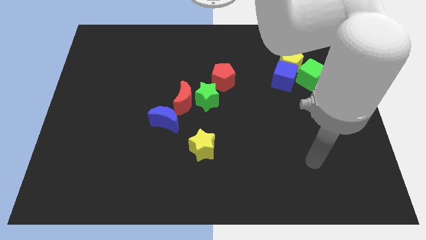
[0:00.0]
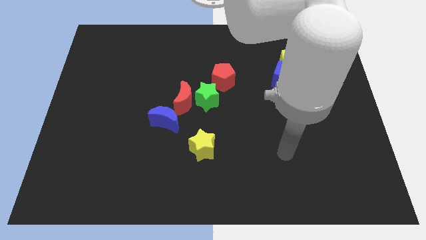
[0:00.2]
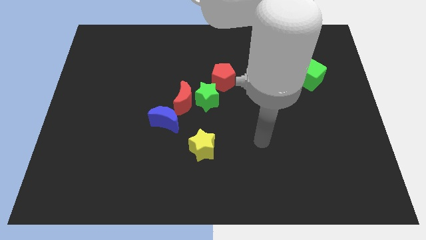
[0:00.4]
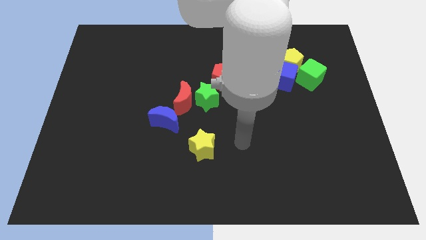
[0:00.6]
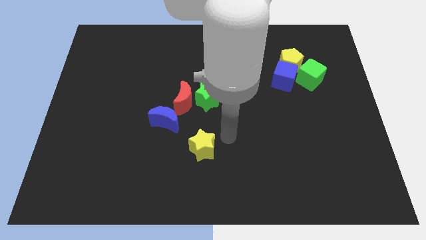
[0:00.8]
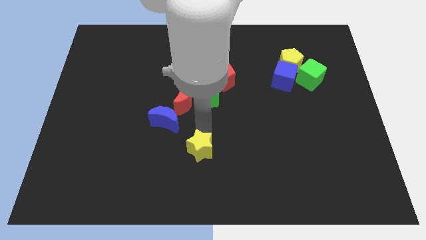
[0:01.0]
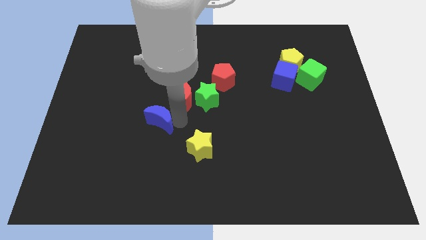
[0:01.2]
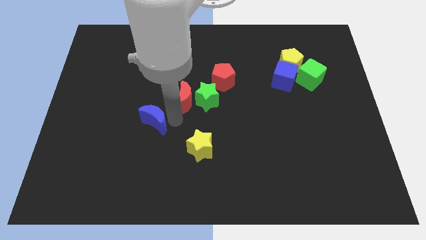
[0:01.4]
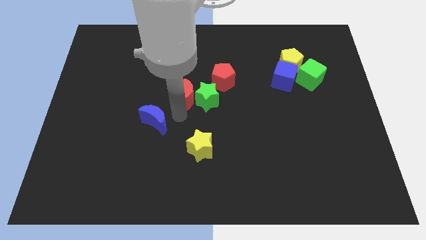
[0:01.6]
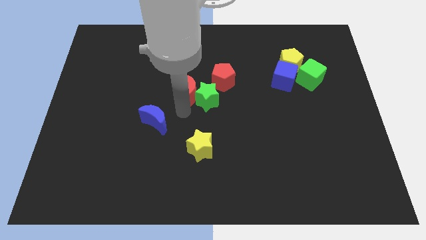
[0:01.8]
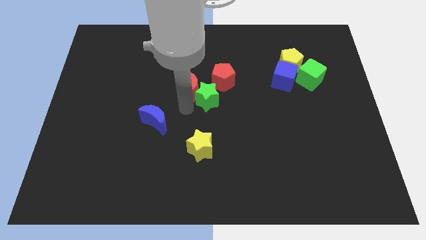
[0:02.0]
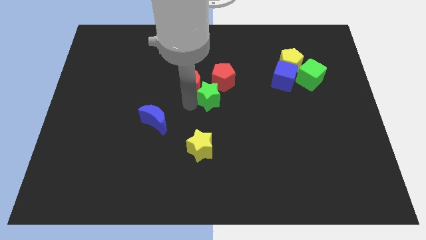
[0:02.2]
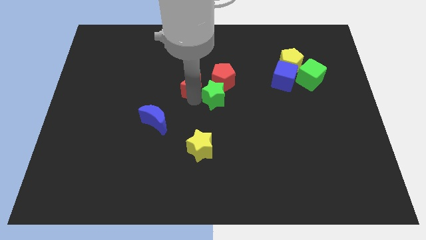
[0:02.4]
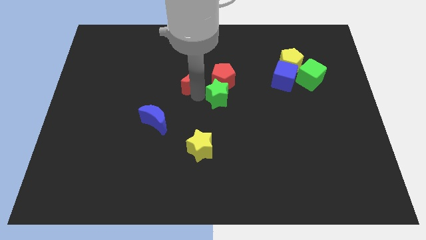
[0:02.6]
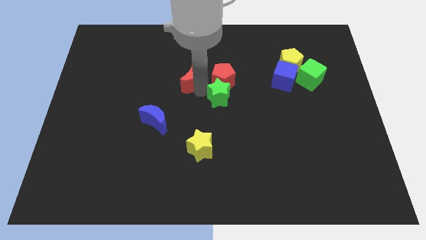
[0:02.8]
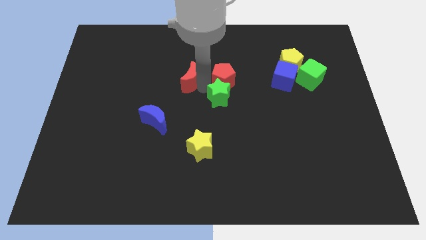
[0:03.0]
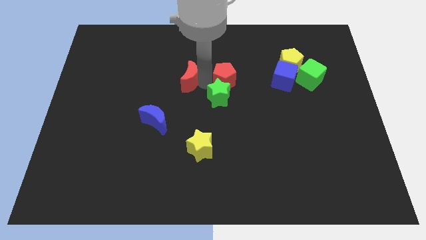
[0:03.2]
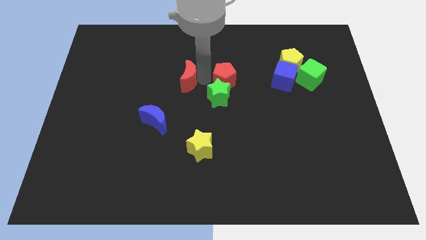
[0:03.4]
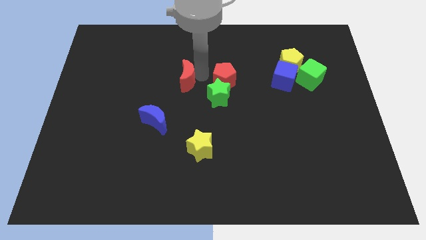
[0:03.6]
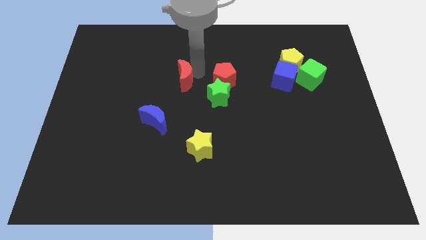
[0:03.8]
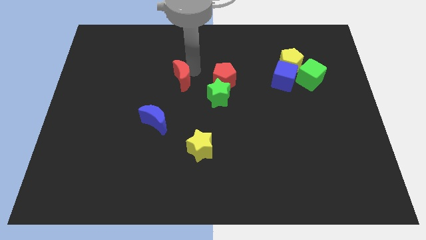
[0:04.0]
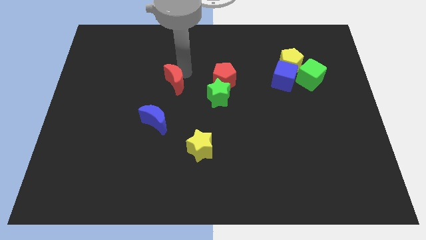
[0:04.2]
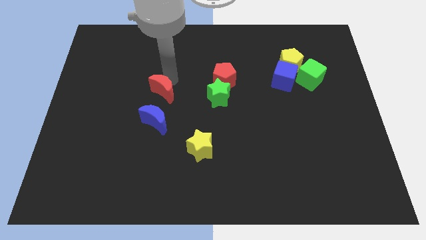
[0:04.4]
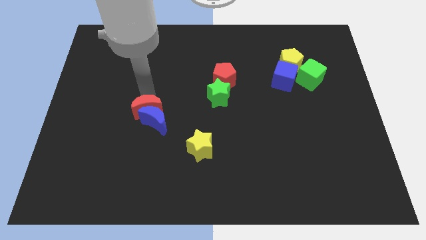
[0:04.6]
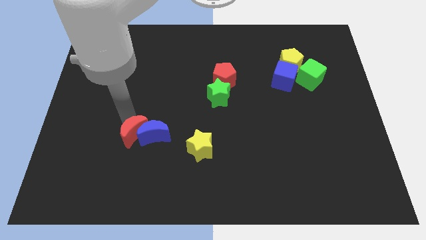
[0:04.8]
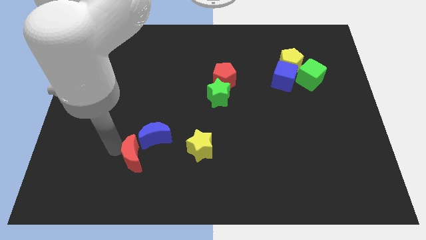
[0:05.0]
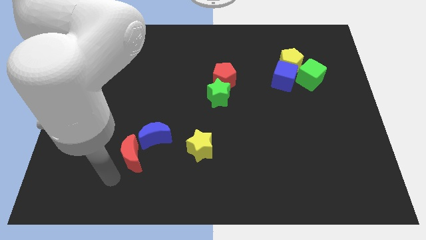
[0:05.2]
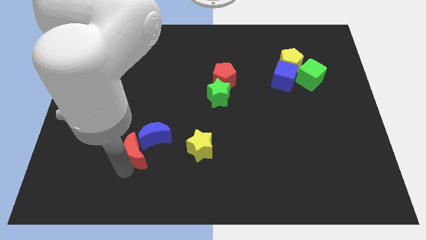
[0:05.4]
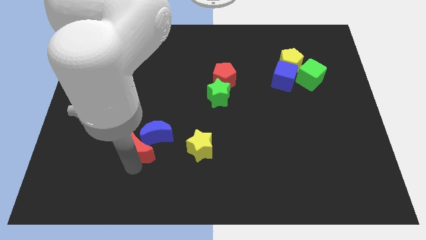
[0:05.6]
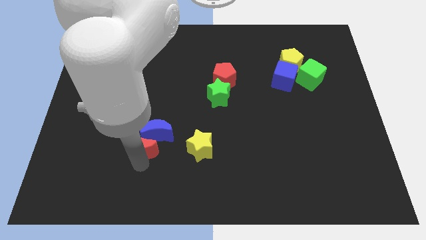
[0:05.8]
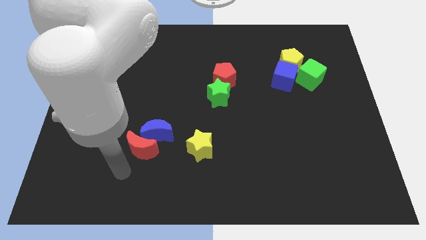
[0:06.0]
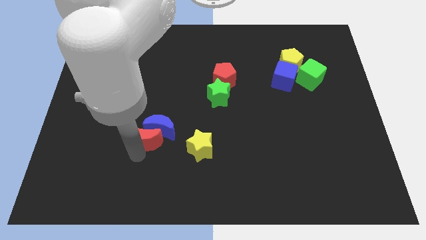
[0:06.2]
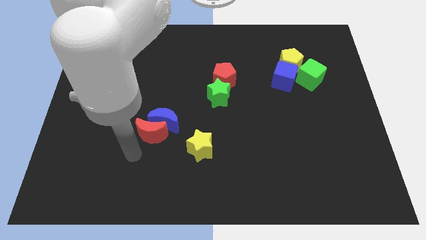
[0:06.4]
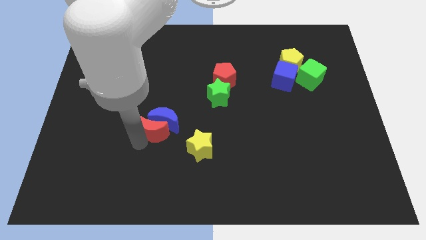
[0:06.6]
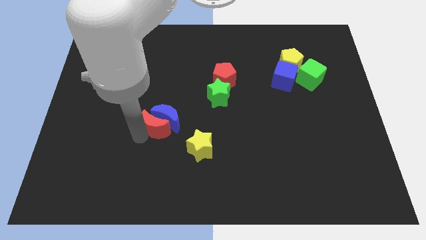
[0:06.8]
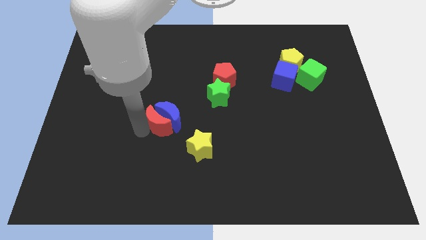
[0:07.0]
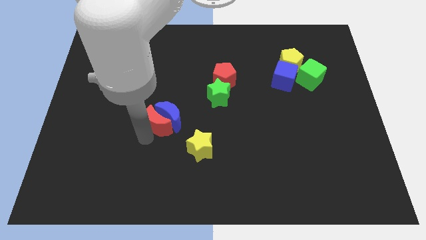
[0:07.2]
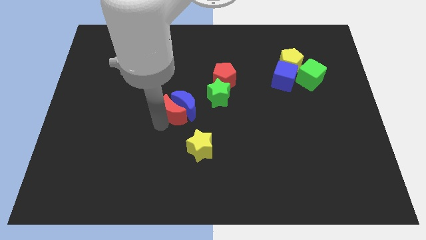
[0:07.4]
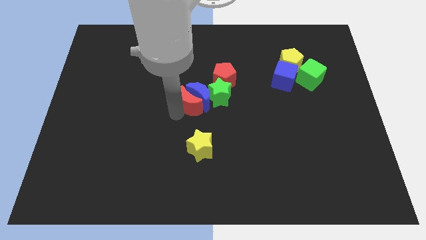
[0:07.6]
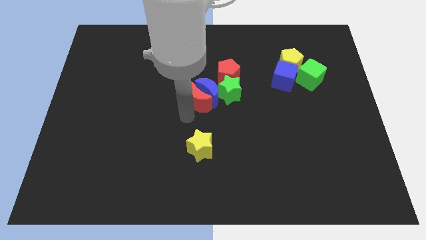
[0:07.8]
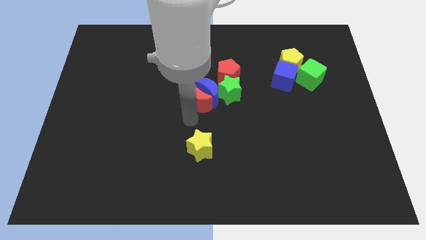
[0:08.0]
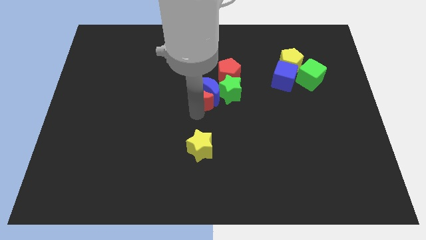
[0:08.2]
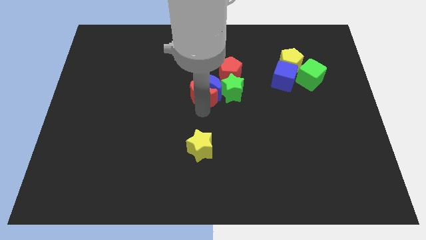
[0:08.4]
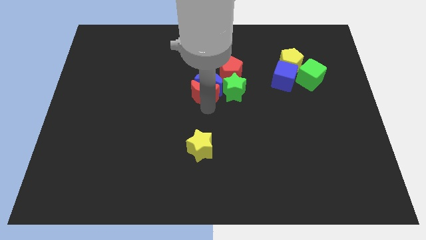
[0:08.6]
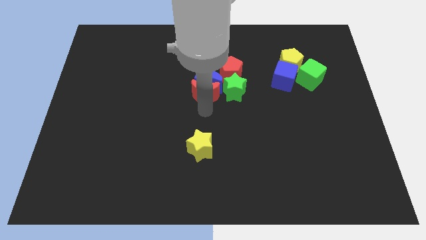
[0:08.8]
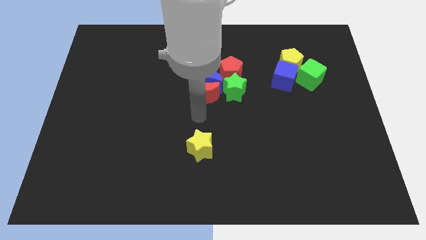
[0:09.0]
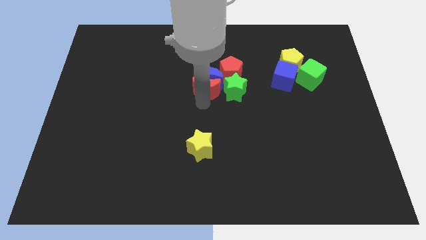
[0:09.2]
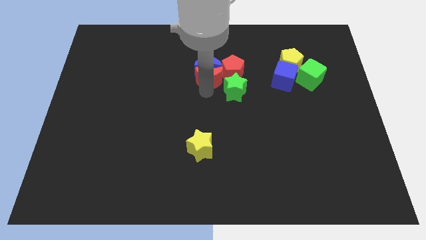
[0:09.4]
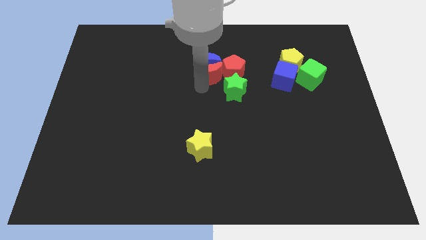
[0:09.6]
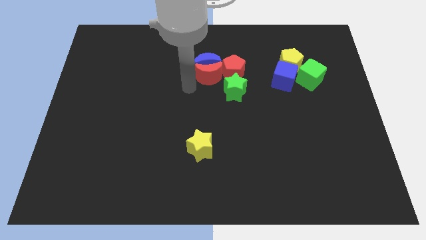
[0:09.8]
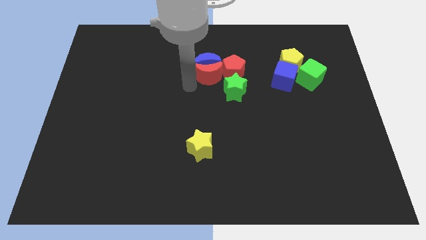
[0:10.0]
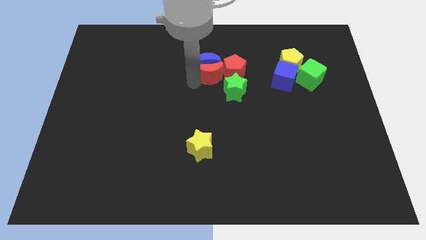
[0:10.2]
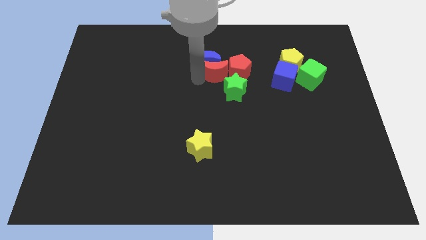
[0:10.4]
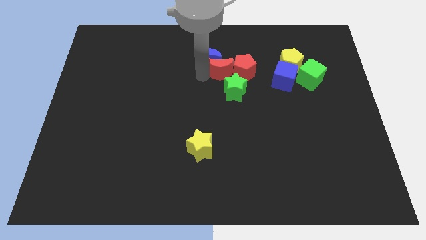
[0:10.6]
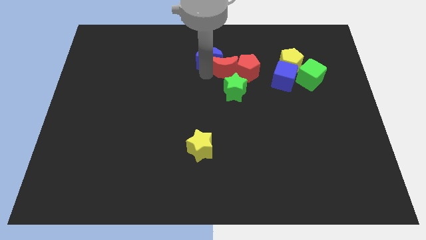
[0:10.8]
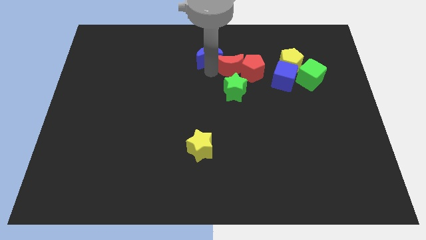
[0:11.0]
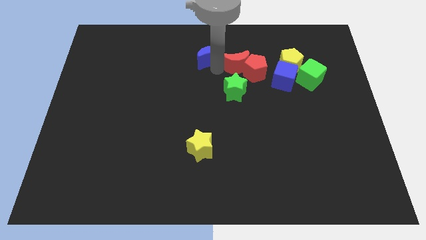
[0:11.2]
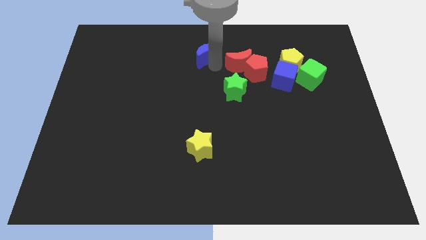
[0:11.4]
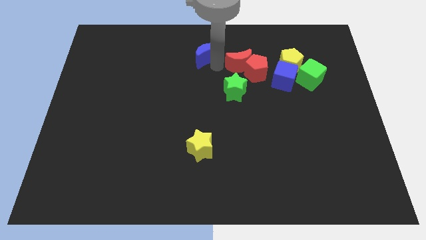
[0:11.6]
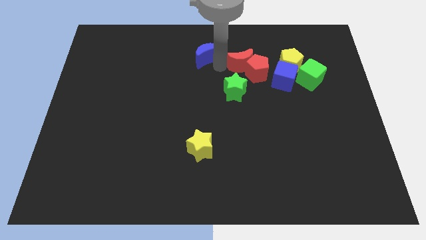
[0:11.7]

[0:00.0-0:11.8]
put the red moon diagonally up and to the left of the blue cube
